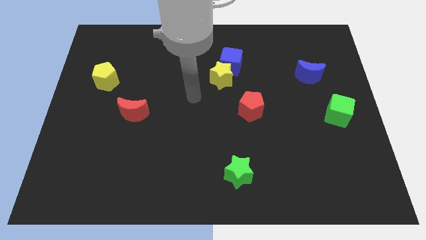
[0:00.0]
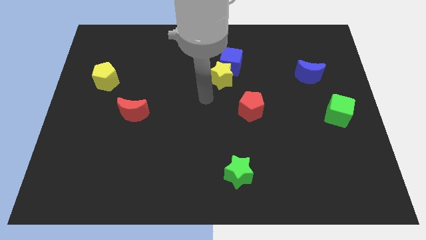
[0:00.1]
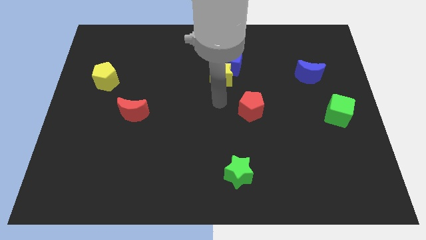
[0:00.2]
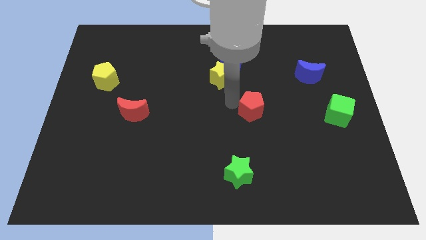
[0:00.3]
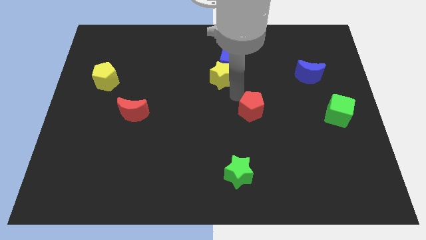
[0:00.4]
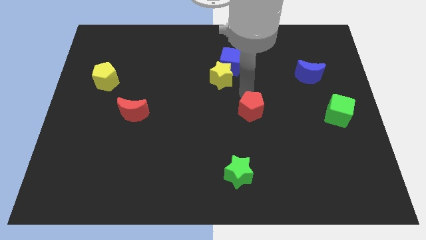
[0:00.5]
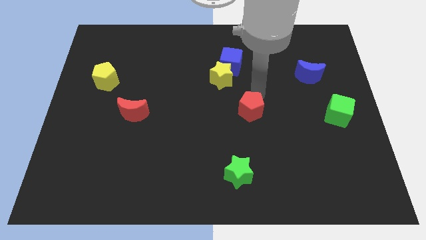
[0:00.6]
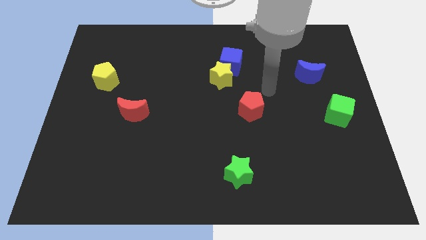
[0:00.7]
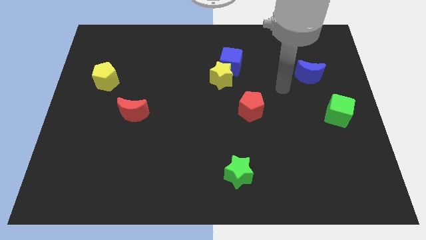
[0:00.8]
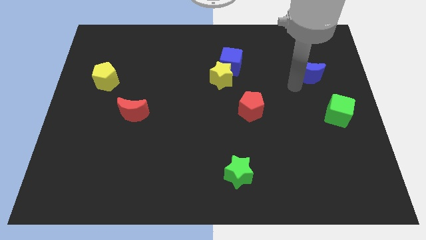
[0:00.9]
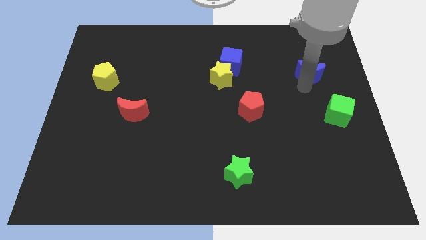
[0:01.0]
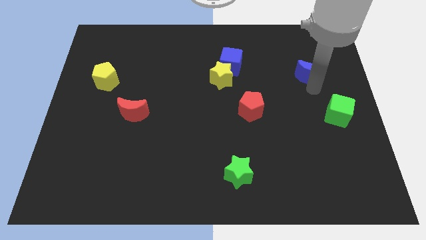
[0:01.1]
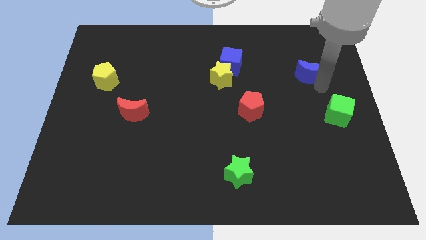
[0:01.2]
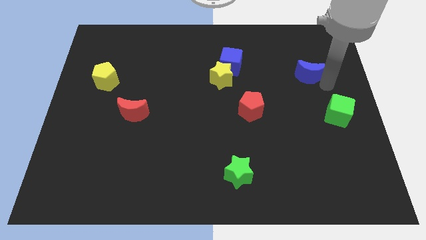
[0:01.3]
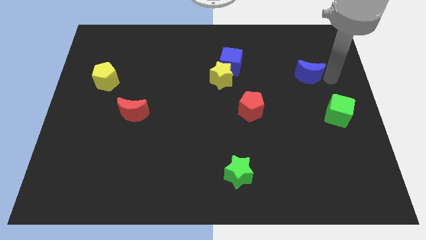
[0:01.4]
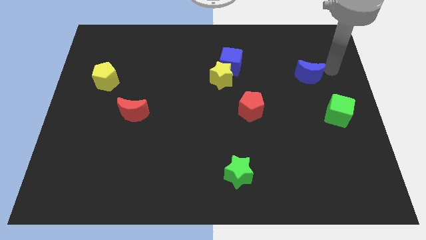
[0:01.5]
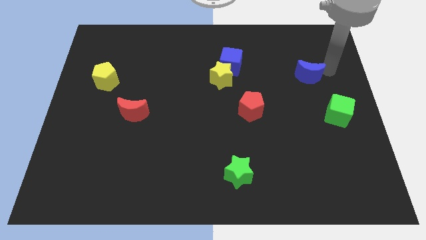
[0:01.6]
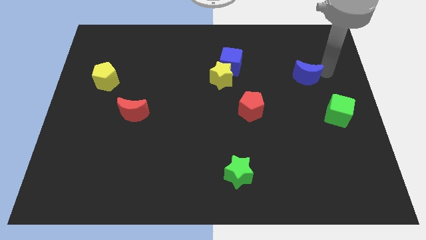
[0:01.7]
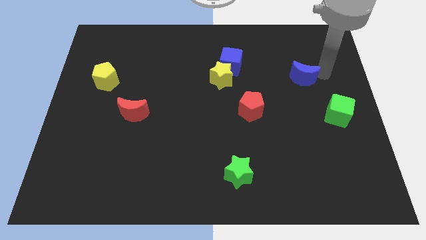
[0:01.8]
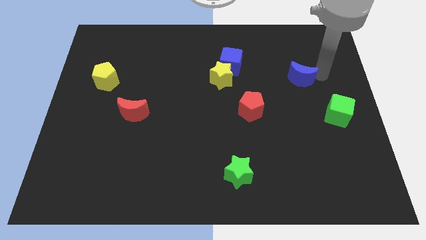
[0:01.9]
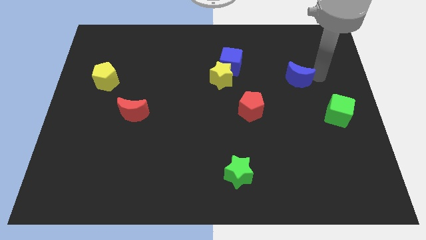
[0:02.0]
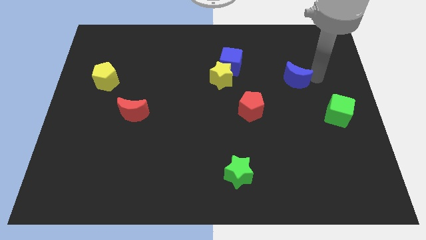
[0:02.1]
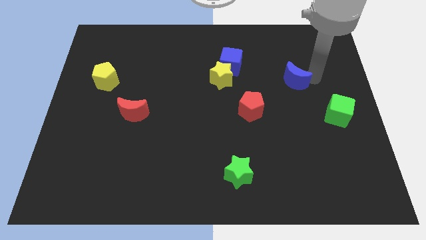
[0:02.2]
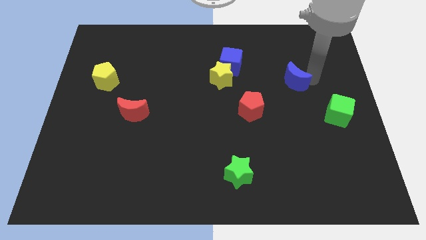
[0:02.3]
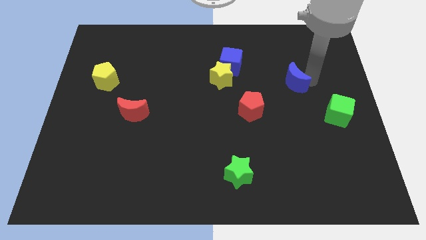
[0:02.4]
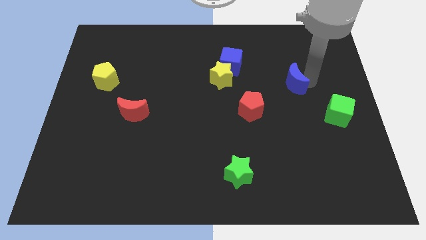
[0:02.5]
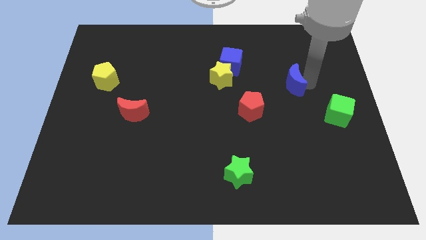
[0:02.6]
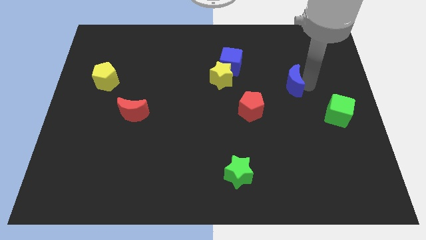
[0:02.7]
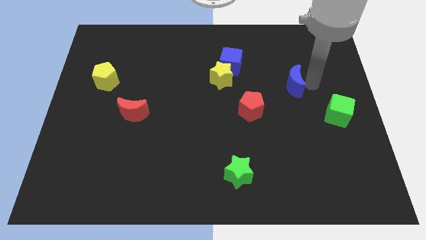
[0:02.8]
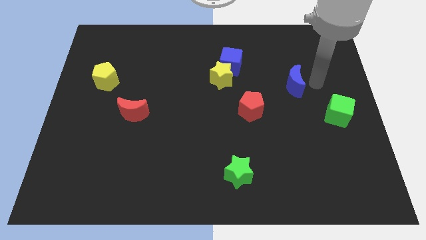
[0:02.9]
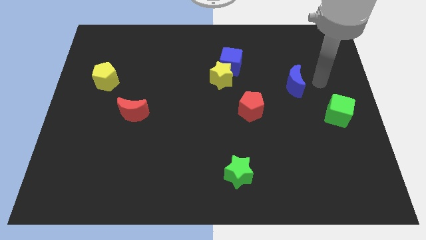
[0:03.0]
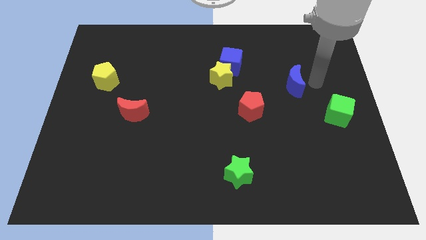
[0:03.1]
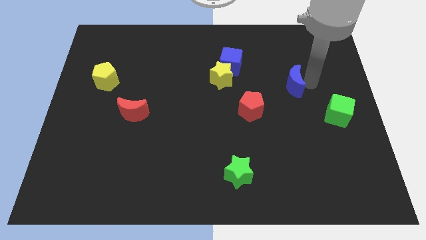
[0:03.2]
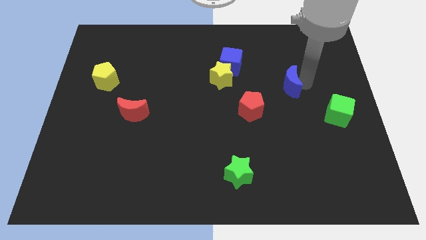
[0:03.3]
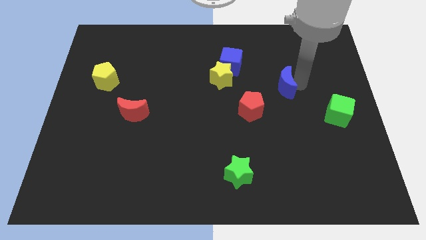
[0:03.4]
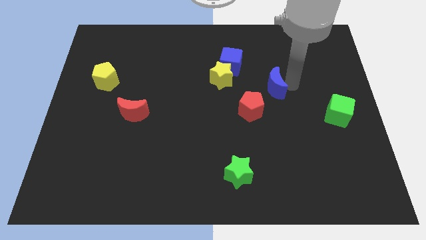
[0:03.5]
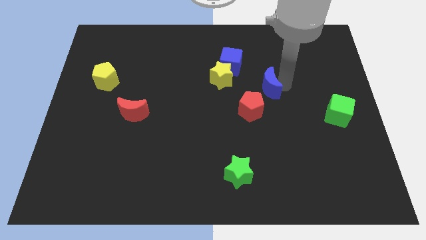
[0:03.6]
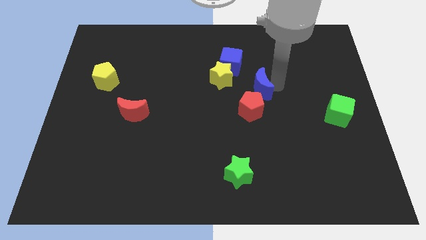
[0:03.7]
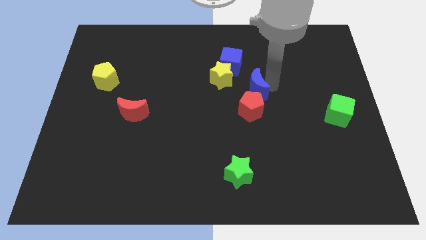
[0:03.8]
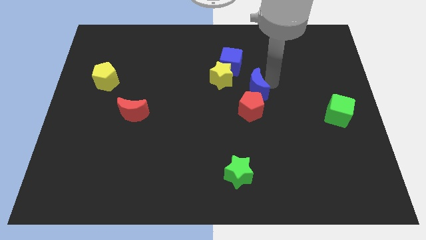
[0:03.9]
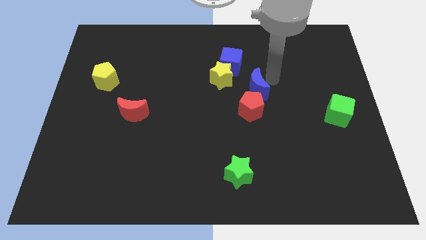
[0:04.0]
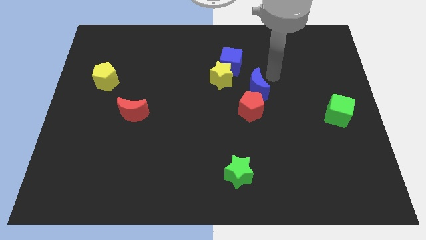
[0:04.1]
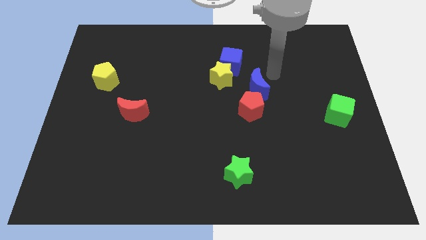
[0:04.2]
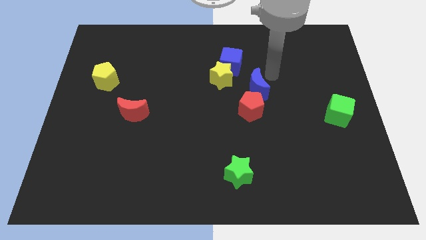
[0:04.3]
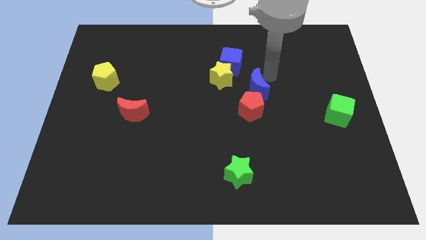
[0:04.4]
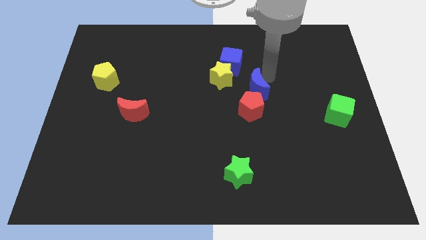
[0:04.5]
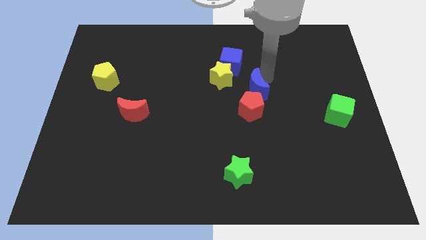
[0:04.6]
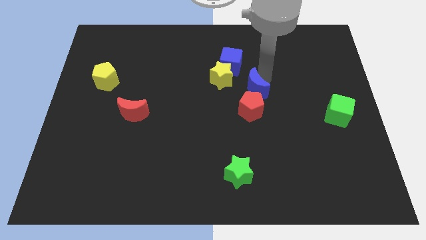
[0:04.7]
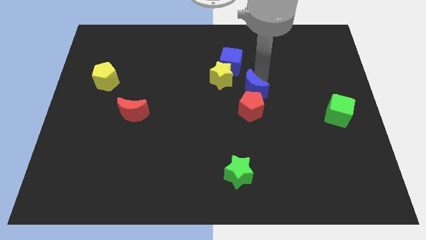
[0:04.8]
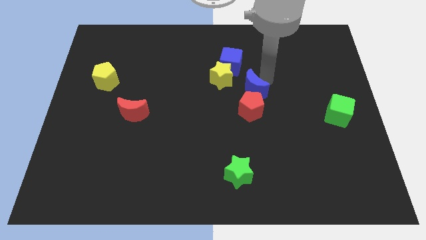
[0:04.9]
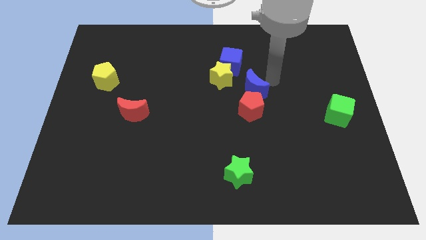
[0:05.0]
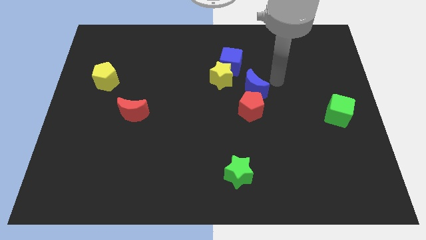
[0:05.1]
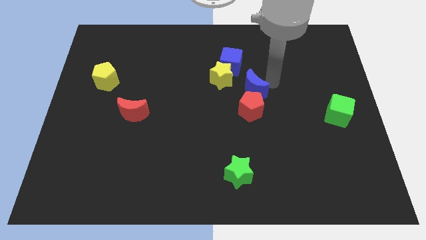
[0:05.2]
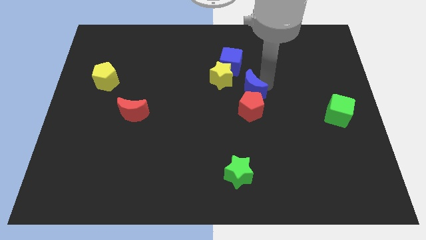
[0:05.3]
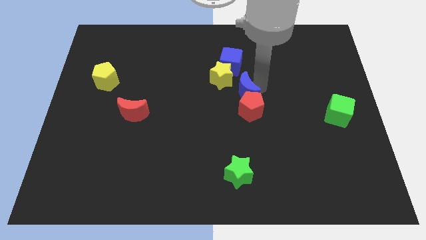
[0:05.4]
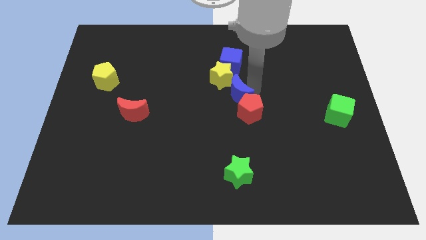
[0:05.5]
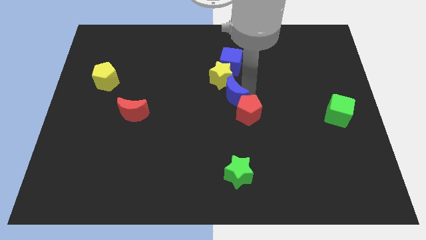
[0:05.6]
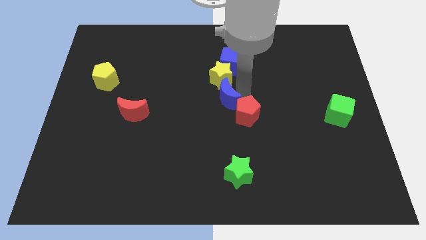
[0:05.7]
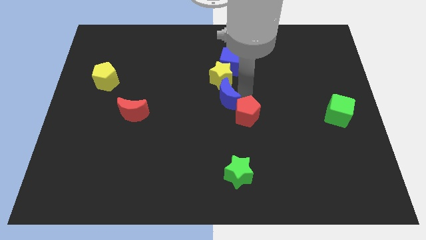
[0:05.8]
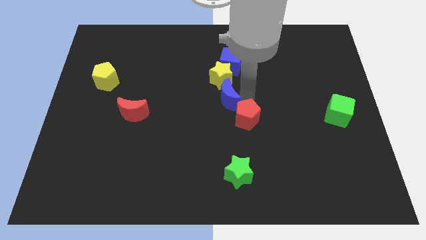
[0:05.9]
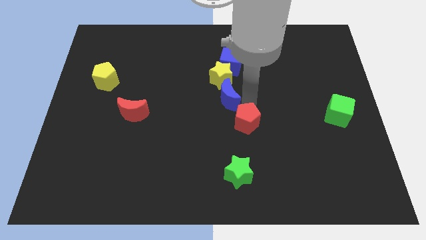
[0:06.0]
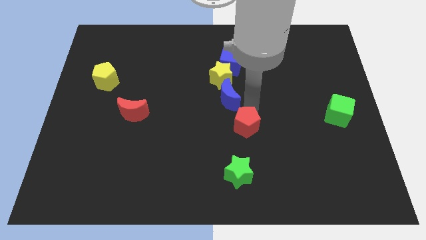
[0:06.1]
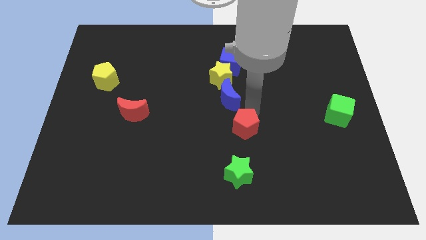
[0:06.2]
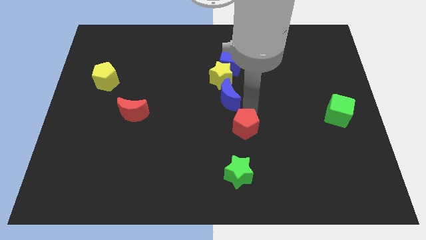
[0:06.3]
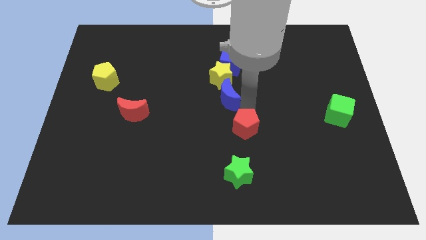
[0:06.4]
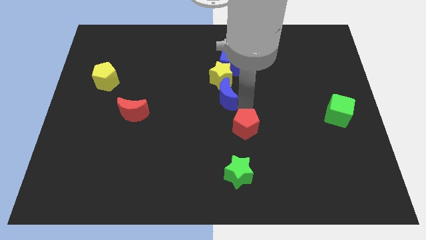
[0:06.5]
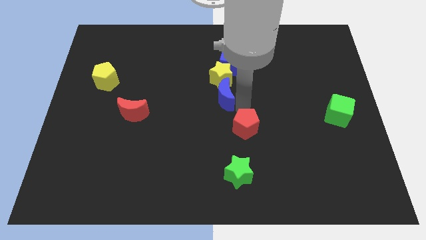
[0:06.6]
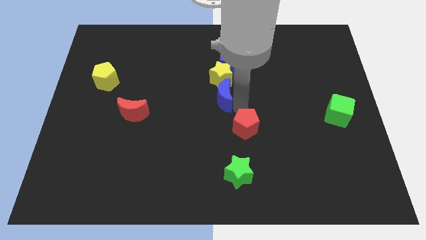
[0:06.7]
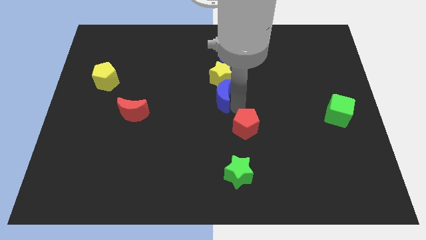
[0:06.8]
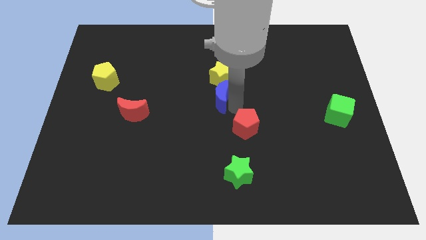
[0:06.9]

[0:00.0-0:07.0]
move the blue moon left

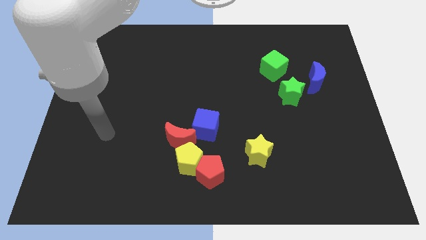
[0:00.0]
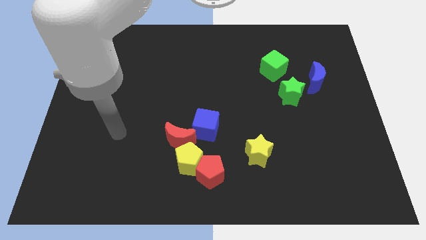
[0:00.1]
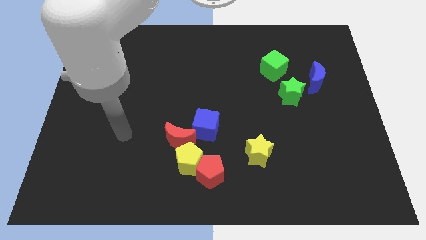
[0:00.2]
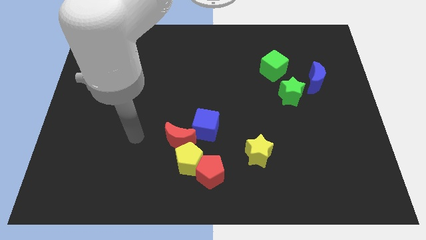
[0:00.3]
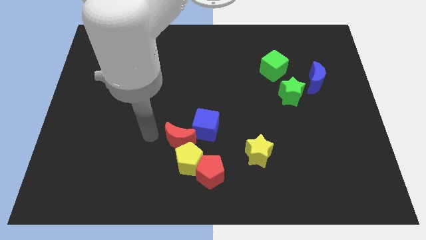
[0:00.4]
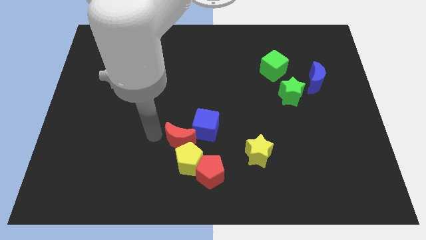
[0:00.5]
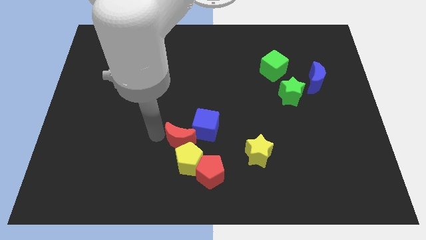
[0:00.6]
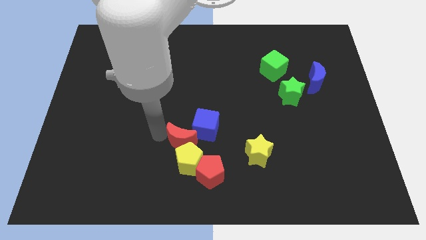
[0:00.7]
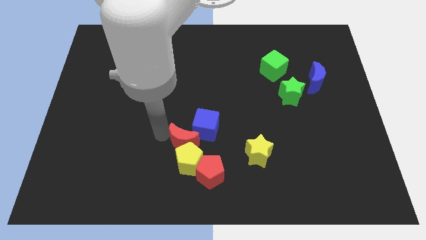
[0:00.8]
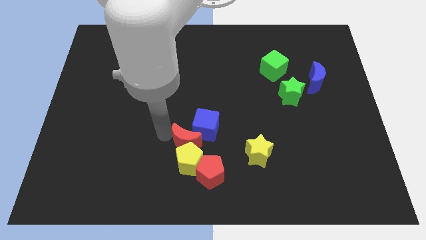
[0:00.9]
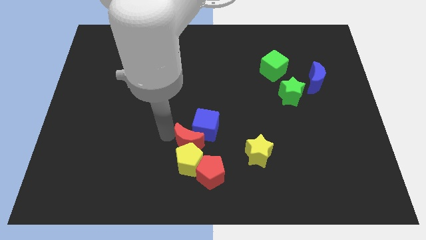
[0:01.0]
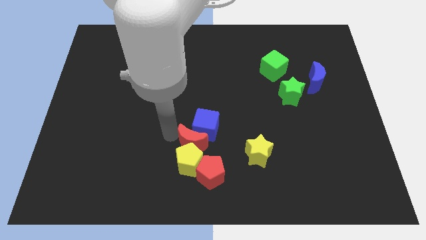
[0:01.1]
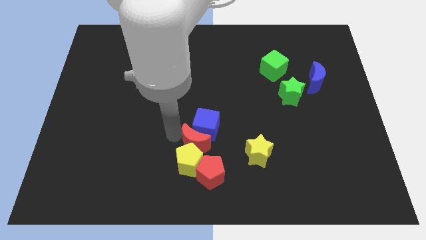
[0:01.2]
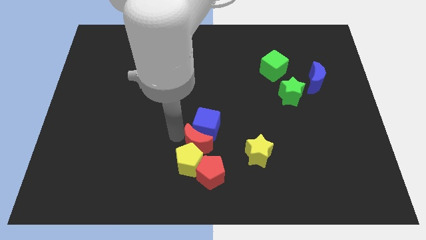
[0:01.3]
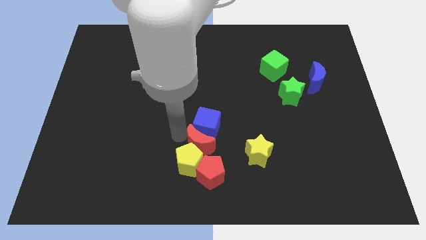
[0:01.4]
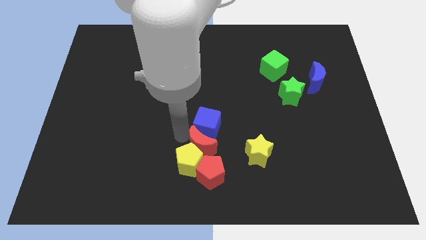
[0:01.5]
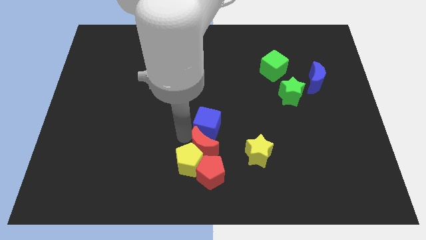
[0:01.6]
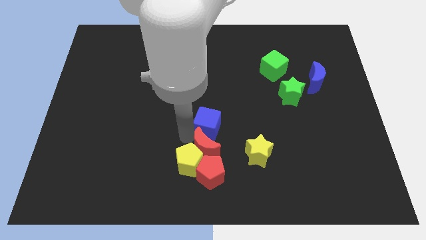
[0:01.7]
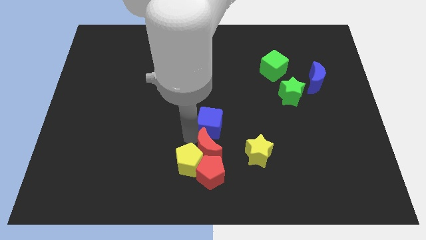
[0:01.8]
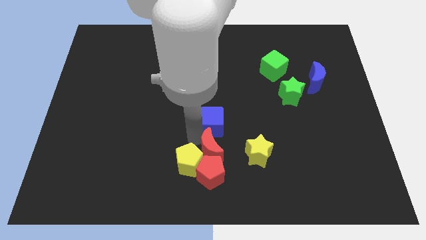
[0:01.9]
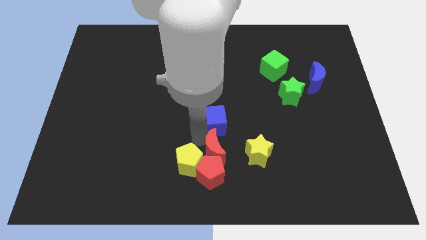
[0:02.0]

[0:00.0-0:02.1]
slightly move the red moon to the right
